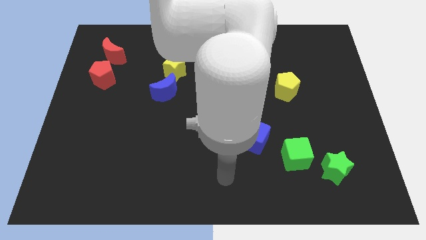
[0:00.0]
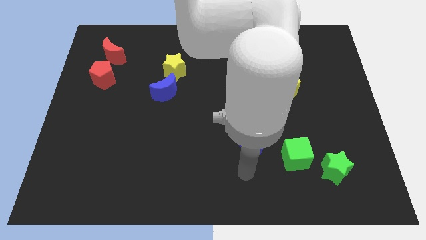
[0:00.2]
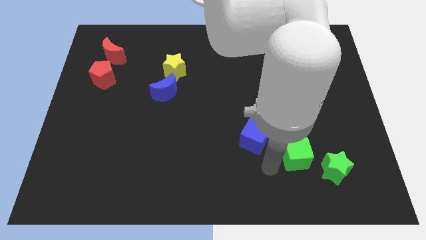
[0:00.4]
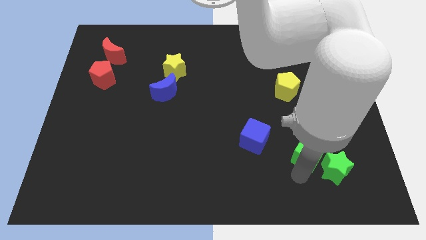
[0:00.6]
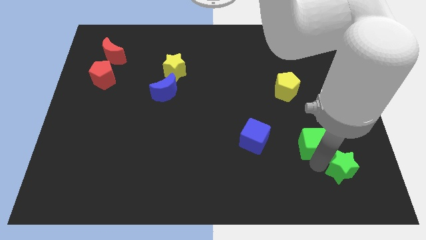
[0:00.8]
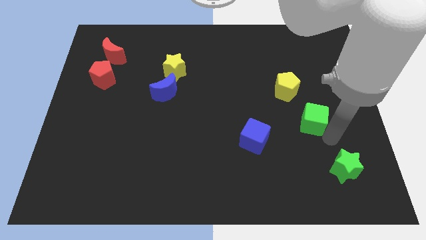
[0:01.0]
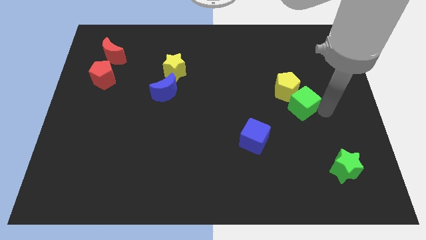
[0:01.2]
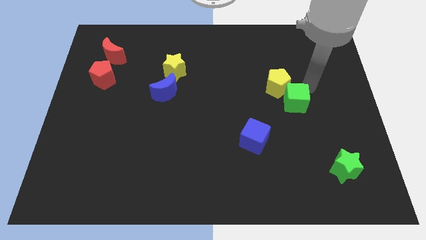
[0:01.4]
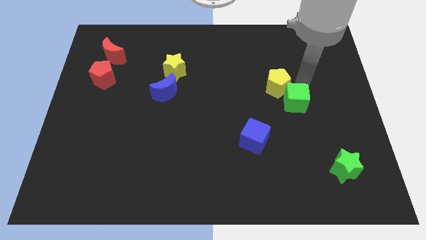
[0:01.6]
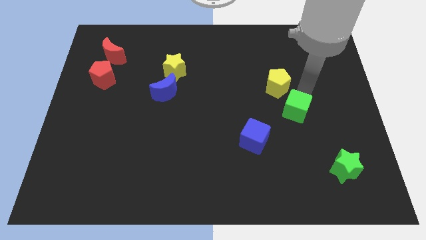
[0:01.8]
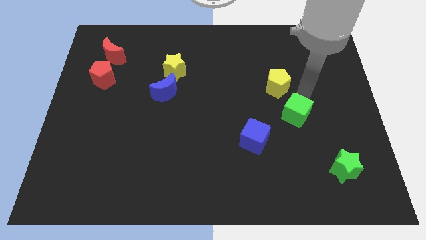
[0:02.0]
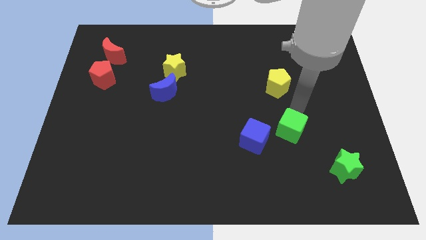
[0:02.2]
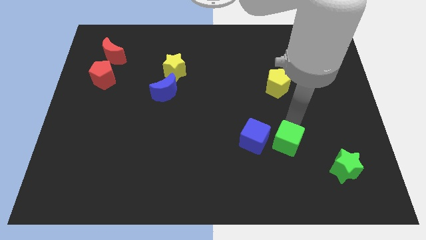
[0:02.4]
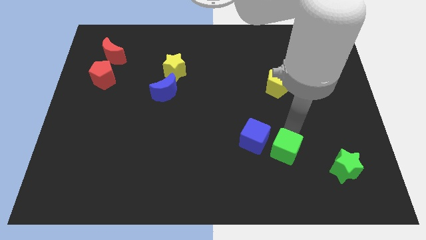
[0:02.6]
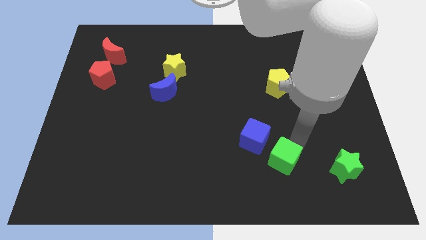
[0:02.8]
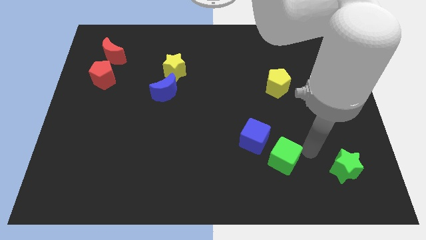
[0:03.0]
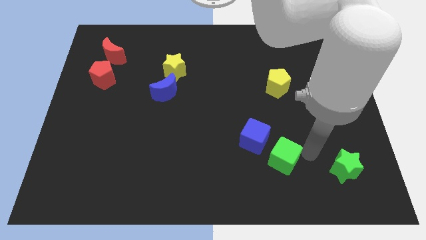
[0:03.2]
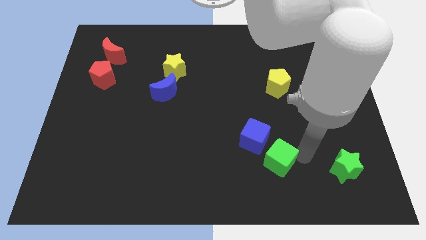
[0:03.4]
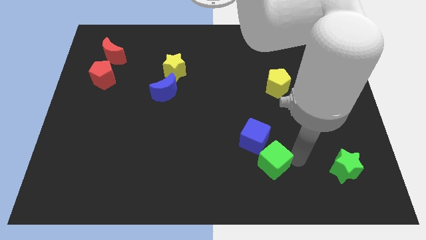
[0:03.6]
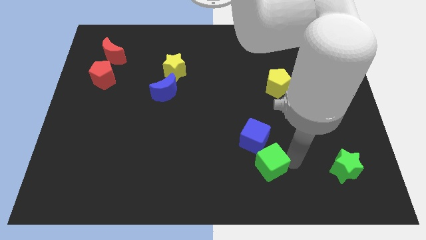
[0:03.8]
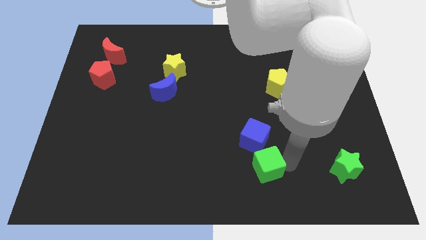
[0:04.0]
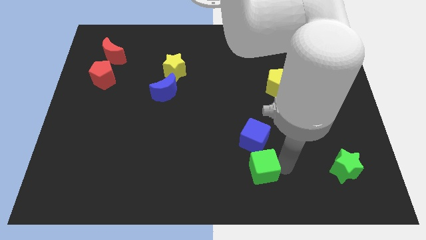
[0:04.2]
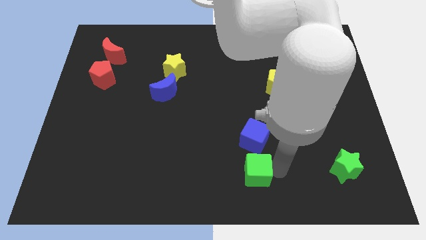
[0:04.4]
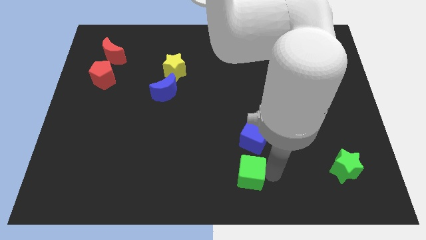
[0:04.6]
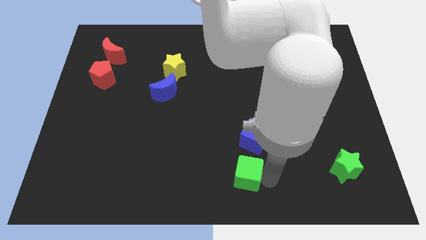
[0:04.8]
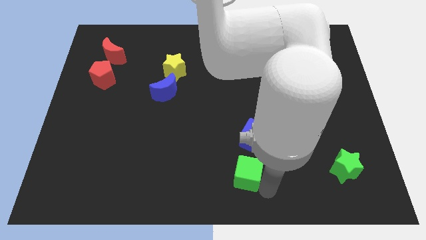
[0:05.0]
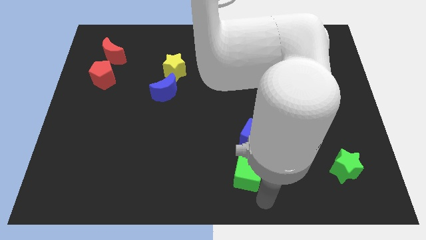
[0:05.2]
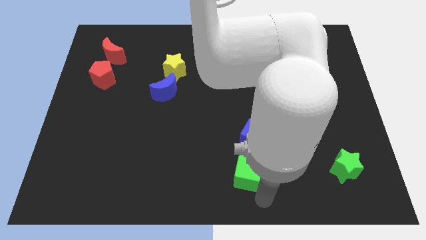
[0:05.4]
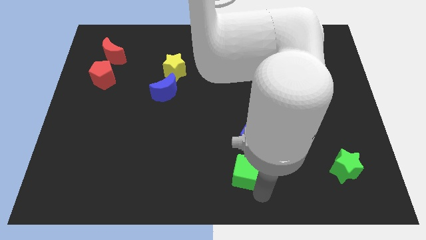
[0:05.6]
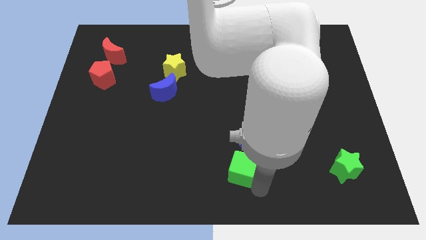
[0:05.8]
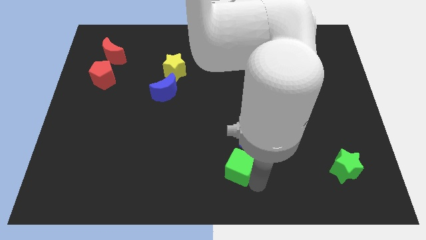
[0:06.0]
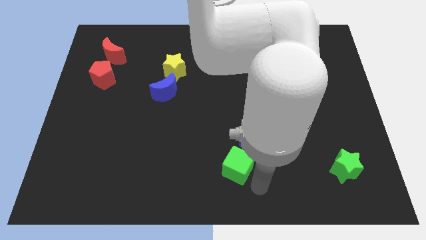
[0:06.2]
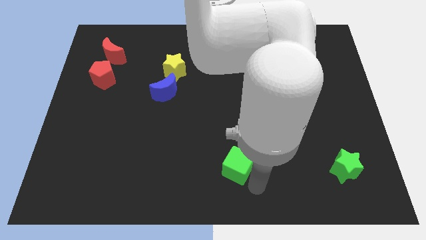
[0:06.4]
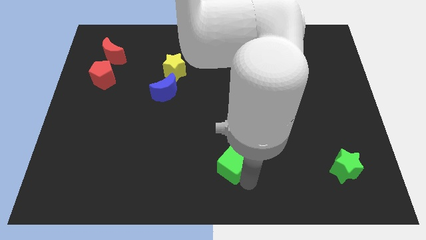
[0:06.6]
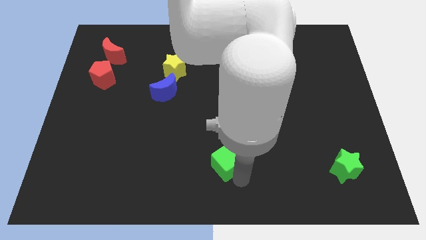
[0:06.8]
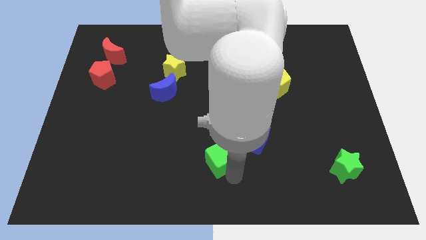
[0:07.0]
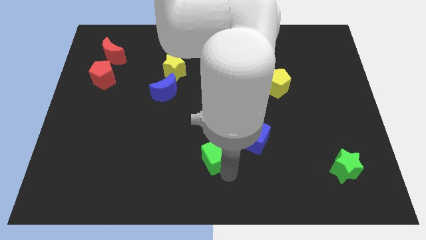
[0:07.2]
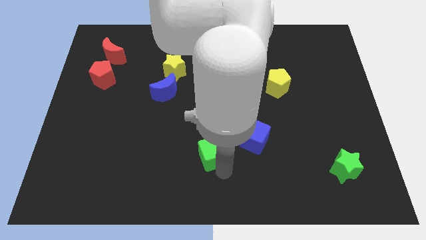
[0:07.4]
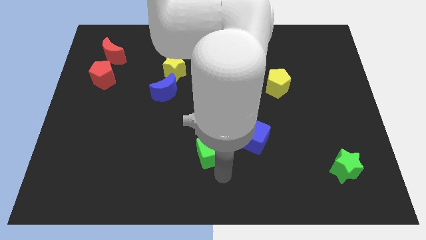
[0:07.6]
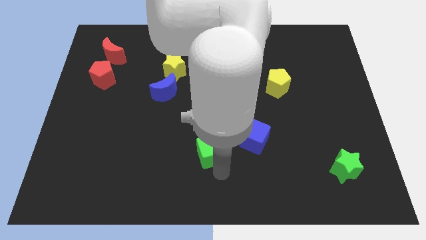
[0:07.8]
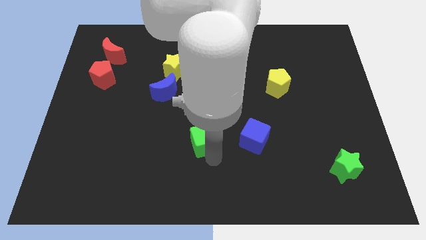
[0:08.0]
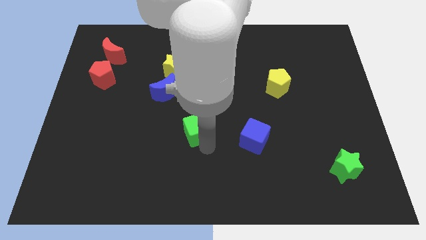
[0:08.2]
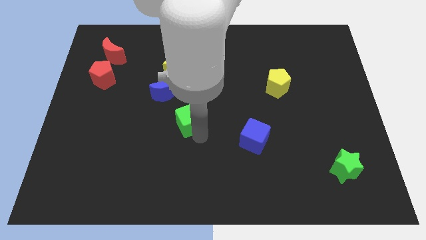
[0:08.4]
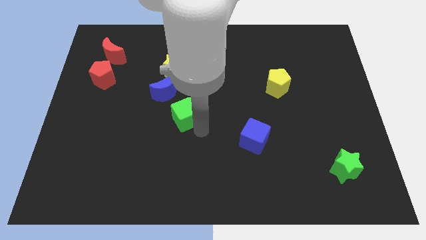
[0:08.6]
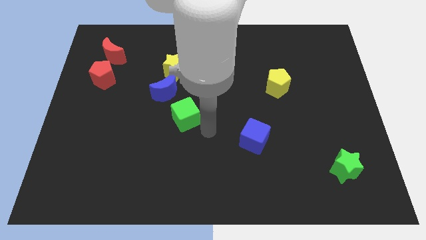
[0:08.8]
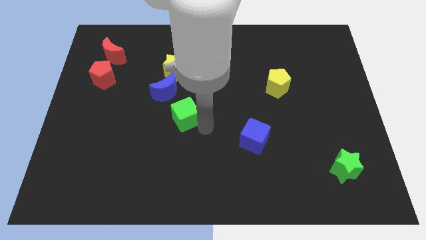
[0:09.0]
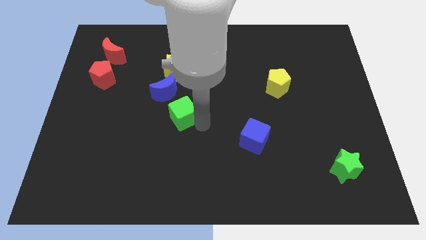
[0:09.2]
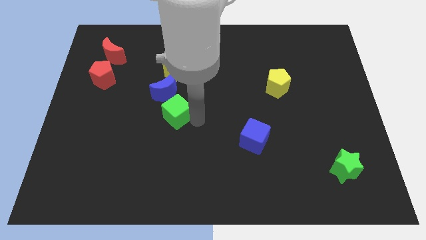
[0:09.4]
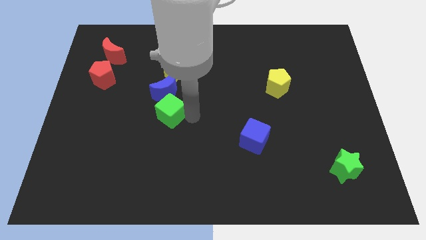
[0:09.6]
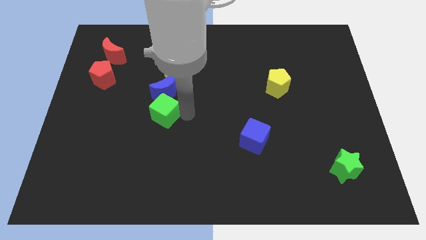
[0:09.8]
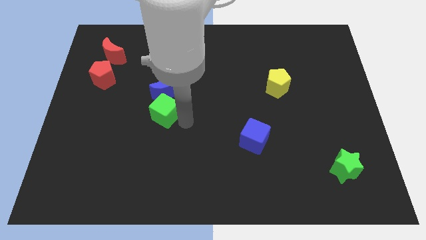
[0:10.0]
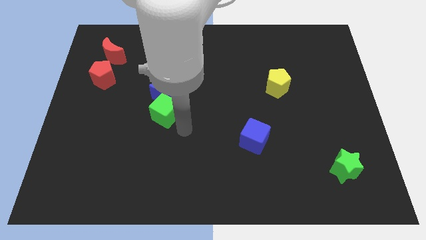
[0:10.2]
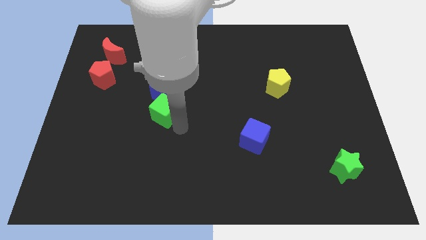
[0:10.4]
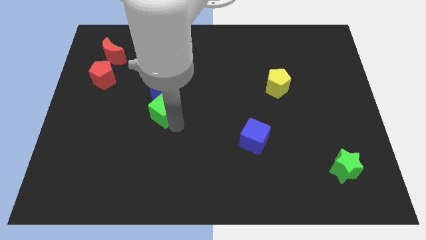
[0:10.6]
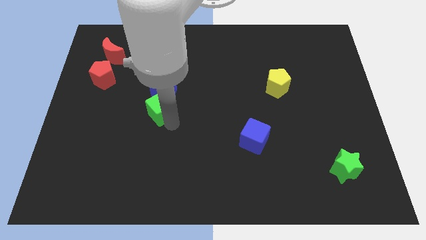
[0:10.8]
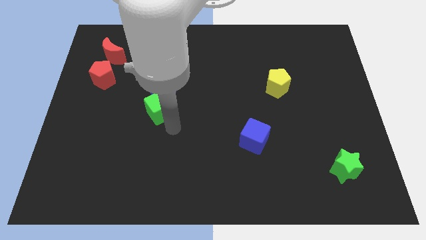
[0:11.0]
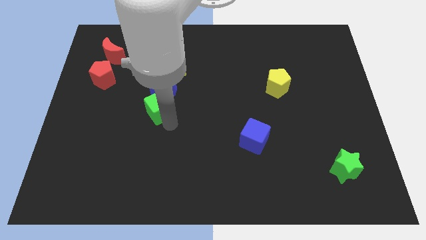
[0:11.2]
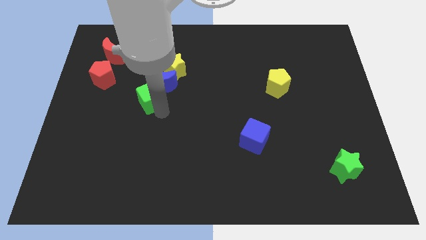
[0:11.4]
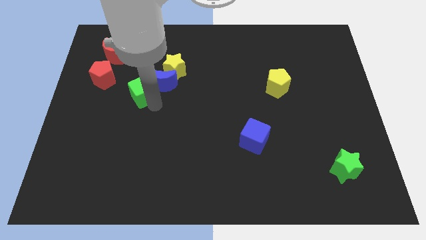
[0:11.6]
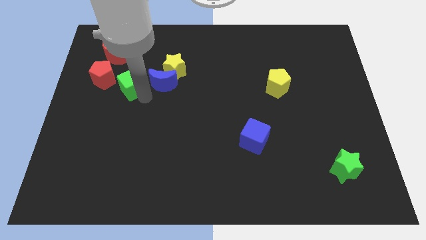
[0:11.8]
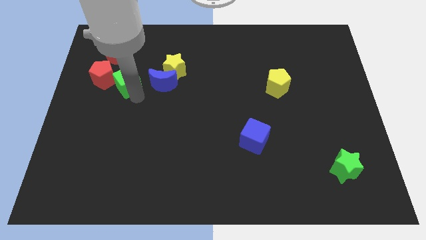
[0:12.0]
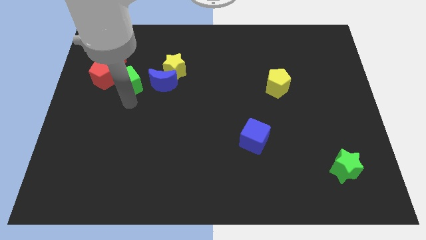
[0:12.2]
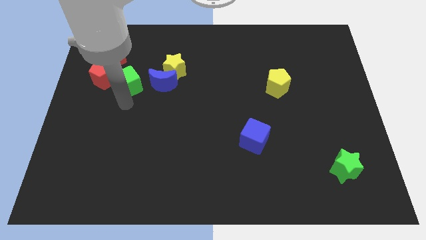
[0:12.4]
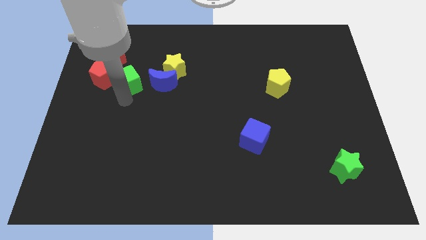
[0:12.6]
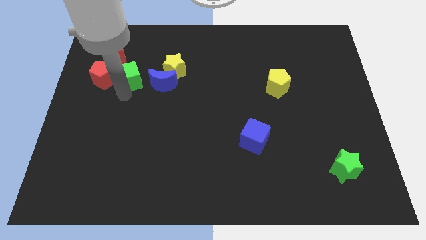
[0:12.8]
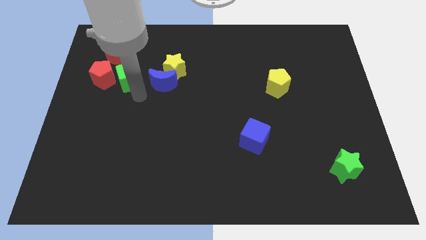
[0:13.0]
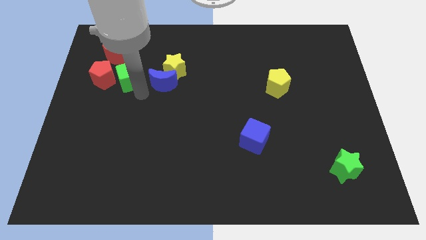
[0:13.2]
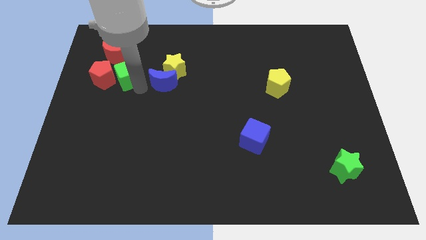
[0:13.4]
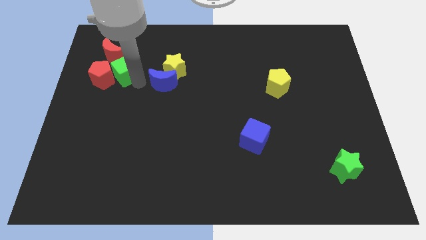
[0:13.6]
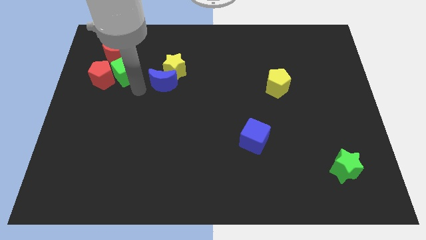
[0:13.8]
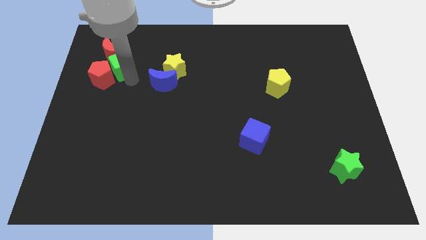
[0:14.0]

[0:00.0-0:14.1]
push the green cube next to the red moon

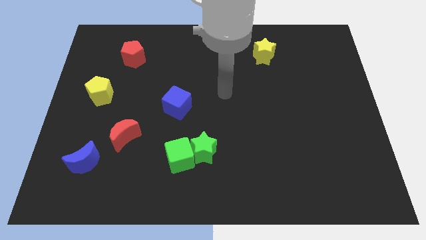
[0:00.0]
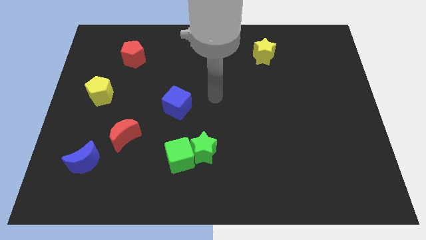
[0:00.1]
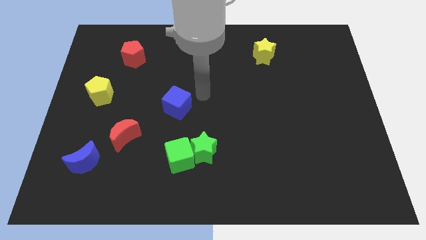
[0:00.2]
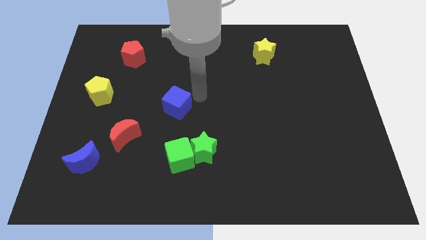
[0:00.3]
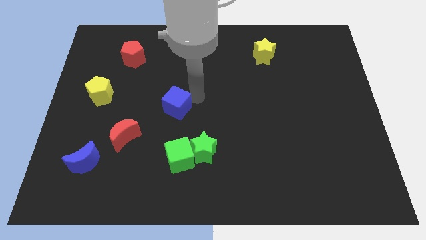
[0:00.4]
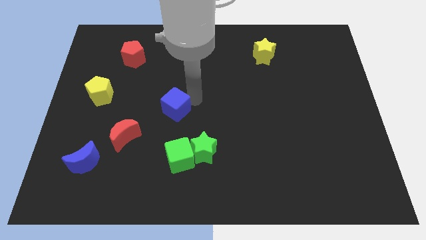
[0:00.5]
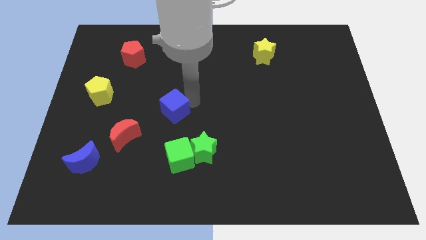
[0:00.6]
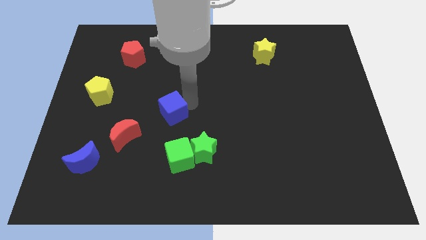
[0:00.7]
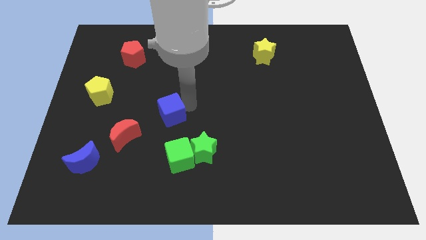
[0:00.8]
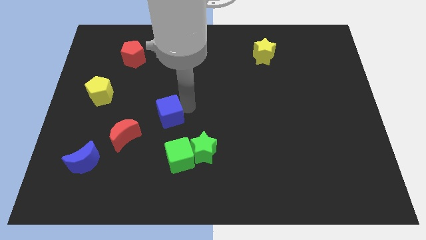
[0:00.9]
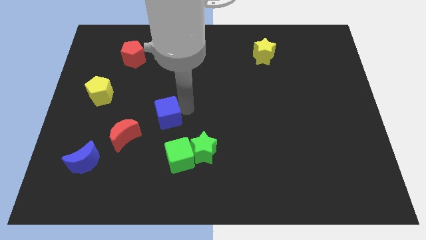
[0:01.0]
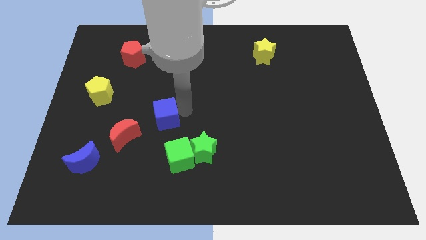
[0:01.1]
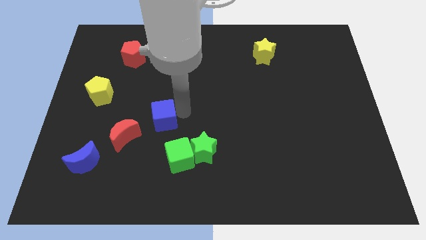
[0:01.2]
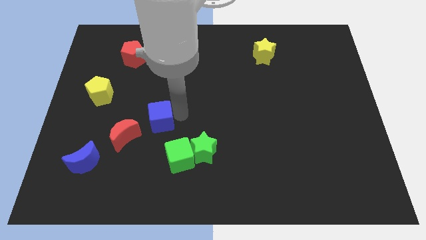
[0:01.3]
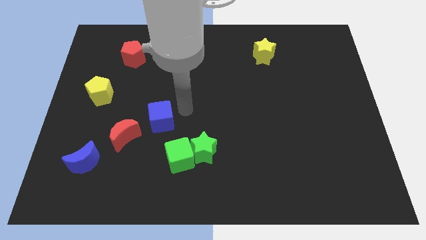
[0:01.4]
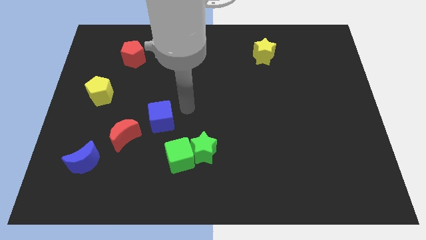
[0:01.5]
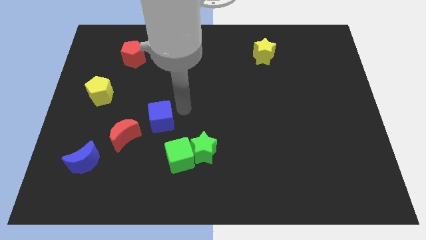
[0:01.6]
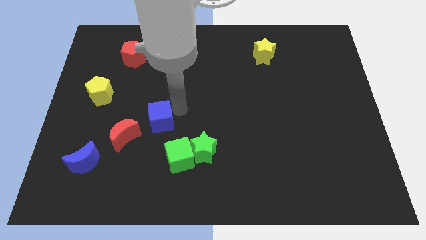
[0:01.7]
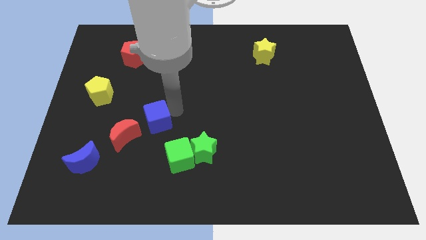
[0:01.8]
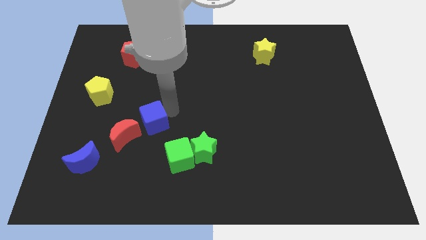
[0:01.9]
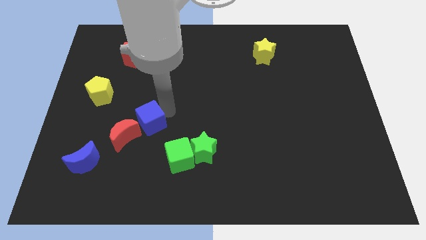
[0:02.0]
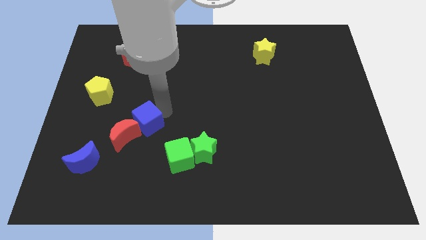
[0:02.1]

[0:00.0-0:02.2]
move the blue cube close to the red moon
